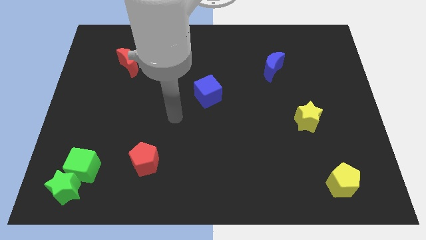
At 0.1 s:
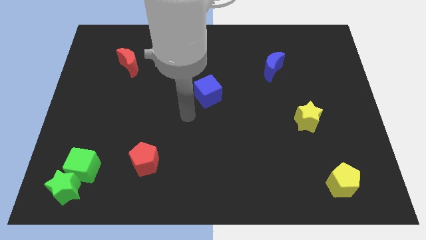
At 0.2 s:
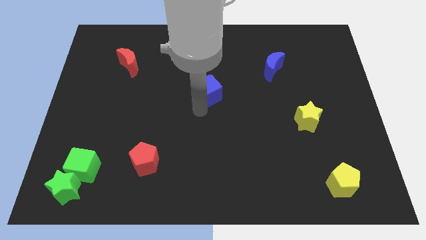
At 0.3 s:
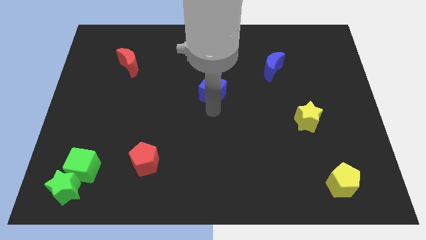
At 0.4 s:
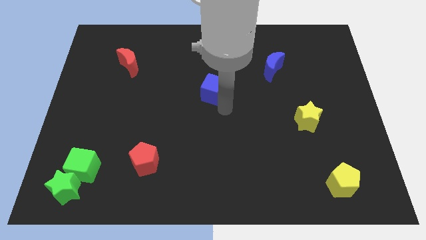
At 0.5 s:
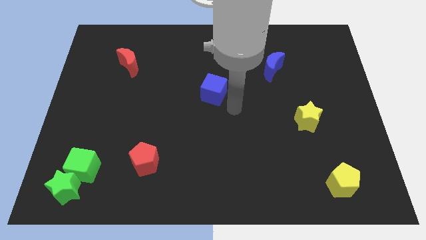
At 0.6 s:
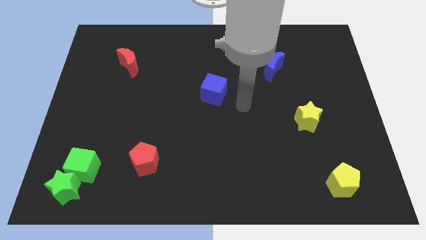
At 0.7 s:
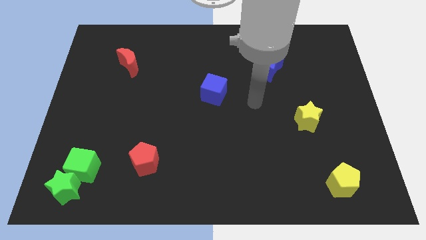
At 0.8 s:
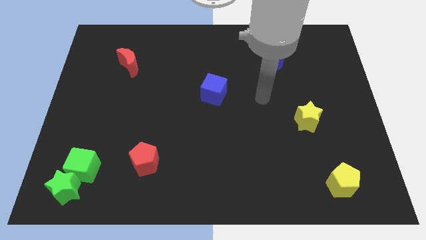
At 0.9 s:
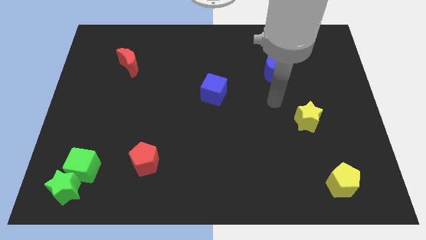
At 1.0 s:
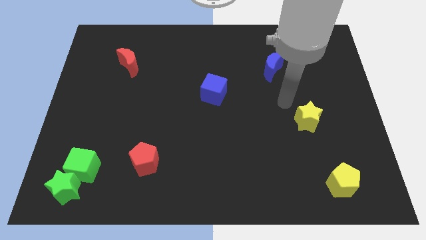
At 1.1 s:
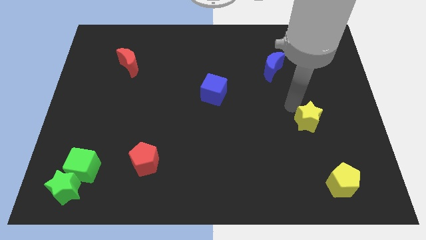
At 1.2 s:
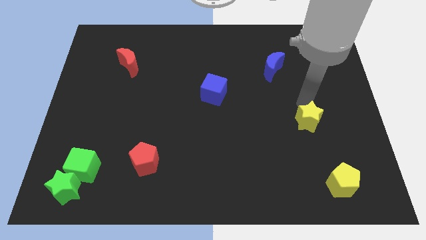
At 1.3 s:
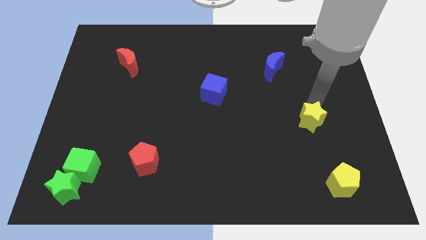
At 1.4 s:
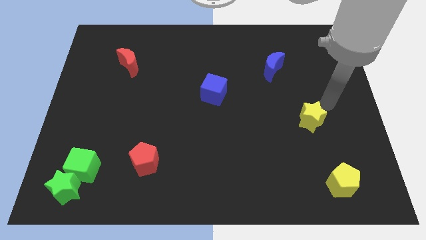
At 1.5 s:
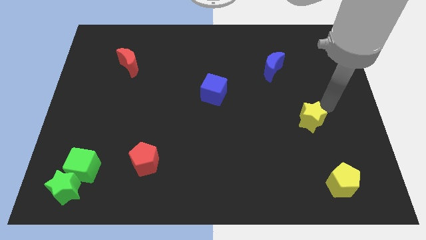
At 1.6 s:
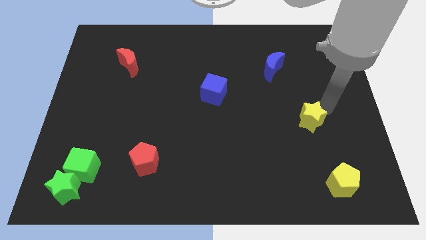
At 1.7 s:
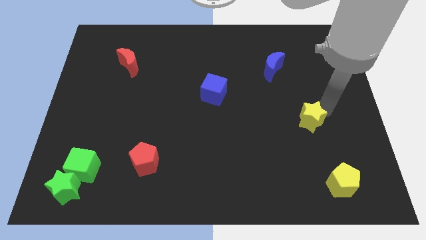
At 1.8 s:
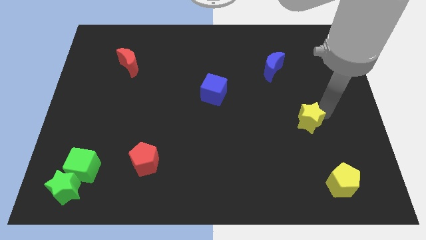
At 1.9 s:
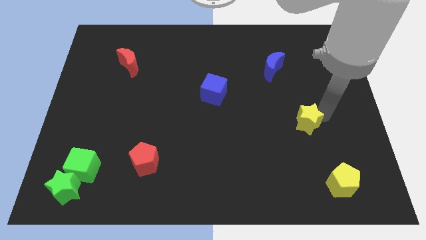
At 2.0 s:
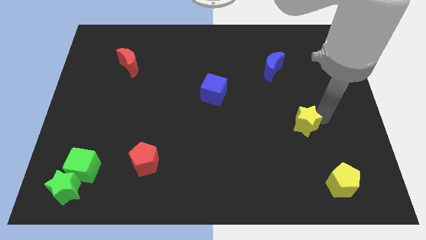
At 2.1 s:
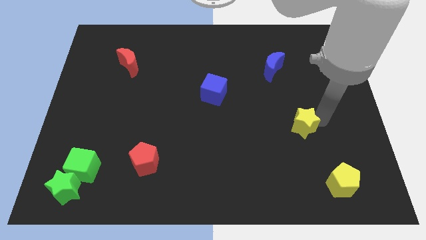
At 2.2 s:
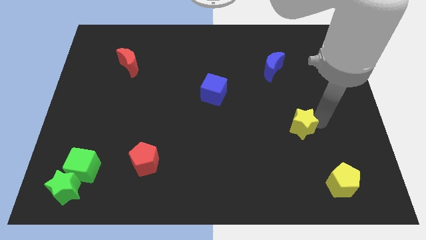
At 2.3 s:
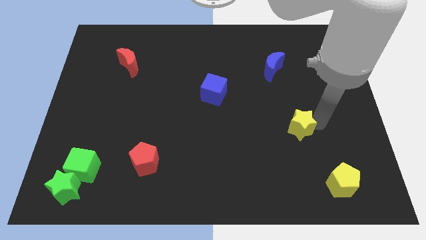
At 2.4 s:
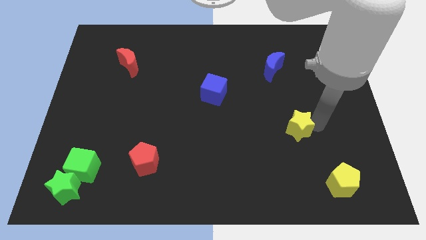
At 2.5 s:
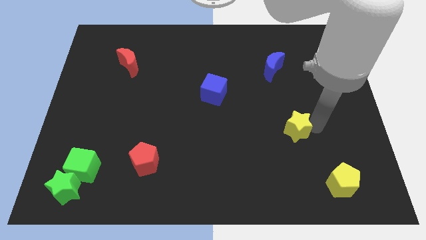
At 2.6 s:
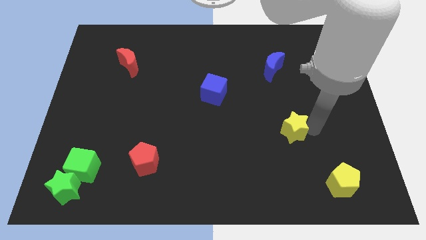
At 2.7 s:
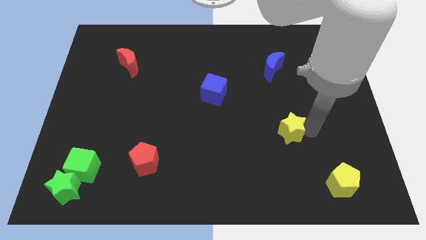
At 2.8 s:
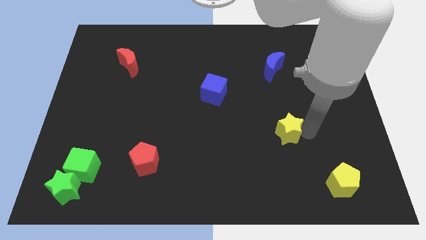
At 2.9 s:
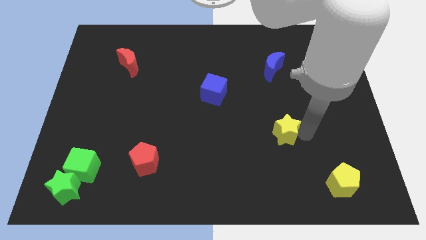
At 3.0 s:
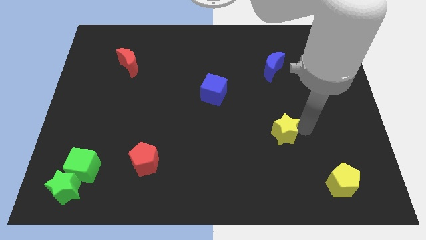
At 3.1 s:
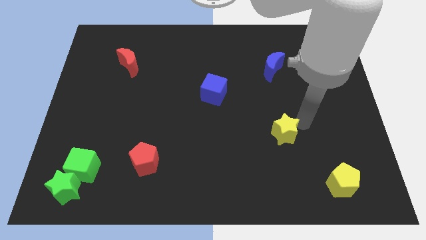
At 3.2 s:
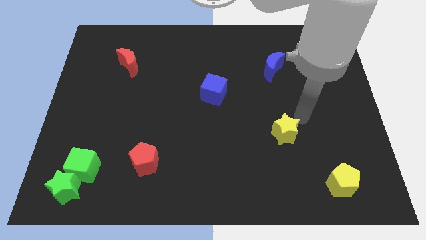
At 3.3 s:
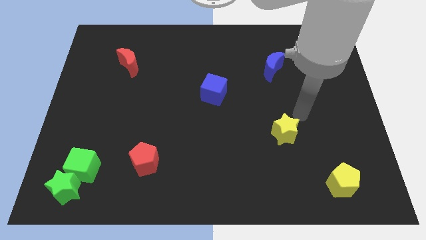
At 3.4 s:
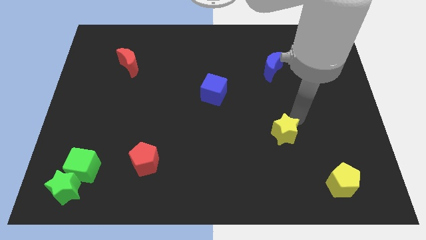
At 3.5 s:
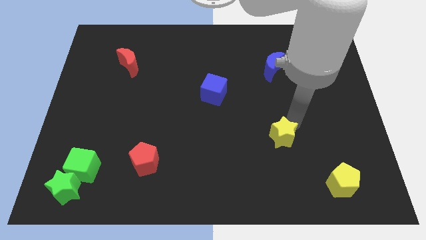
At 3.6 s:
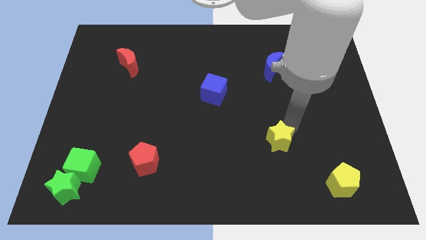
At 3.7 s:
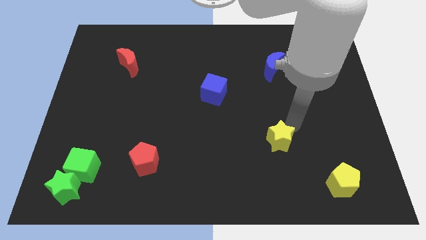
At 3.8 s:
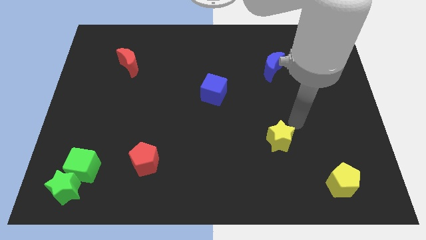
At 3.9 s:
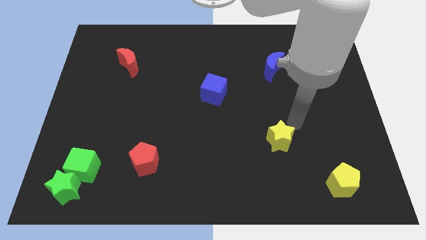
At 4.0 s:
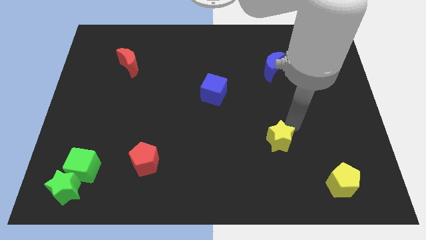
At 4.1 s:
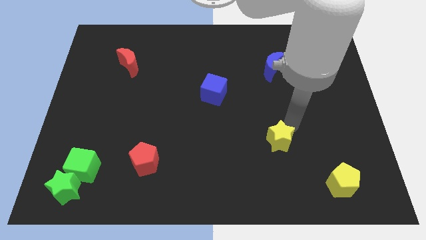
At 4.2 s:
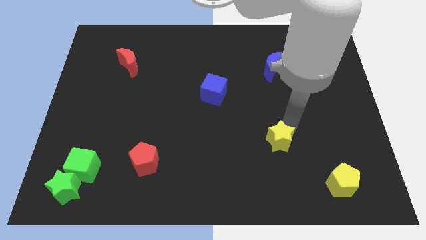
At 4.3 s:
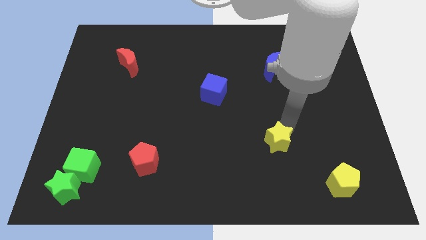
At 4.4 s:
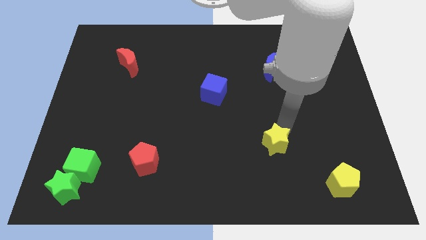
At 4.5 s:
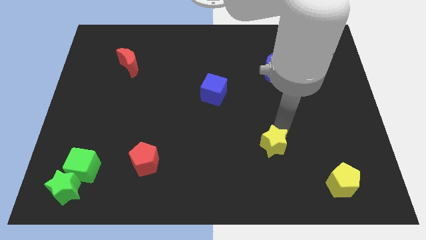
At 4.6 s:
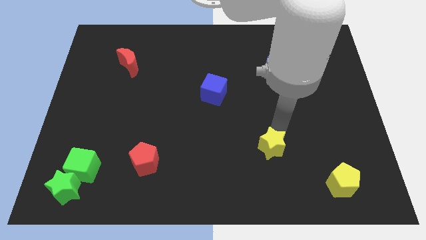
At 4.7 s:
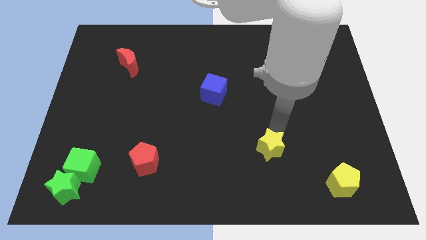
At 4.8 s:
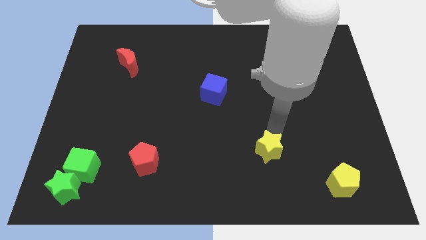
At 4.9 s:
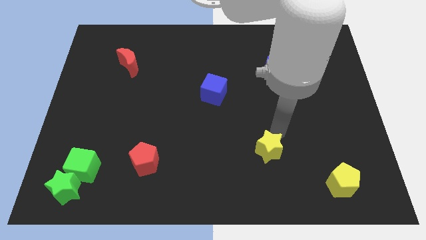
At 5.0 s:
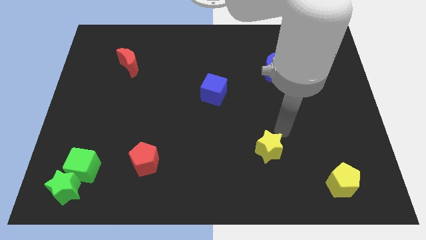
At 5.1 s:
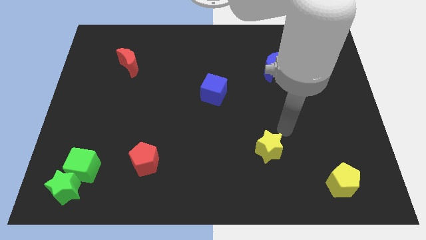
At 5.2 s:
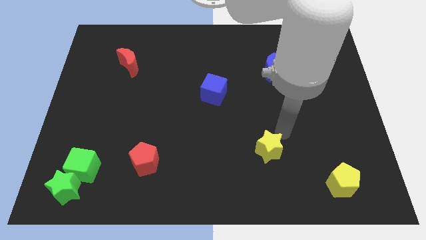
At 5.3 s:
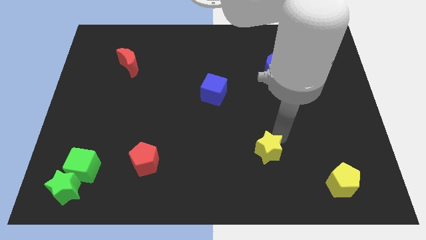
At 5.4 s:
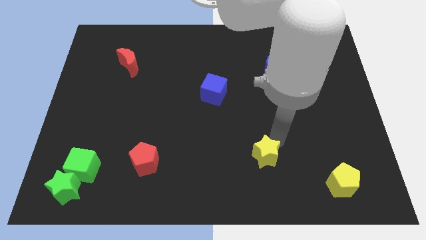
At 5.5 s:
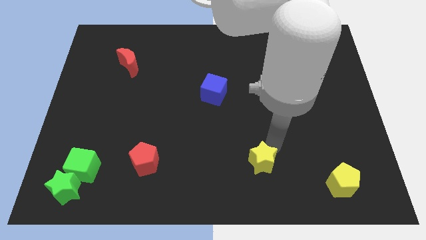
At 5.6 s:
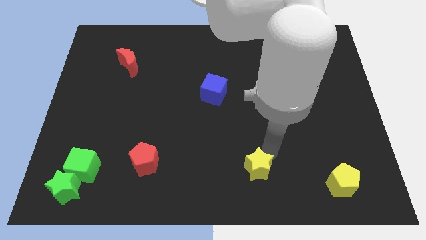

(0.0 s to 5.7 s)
slide the yellow star to the bottom side

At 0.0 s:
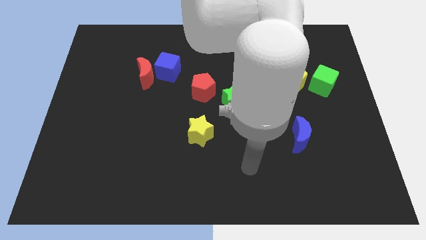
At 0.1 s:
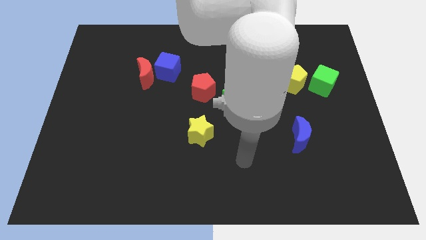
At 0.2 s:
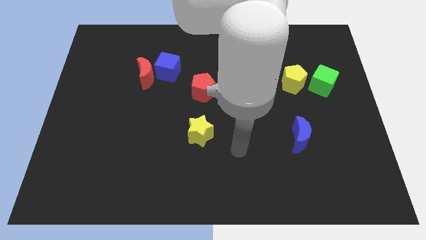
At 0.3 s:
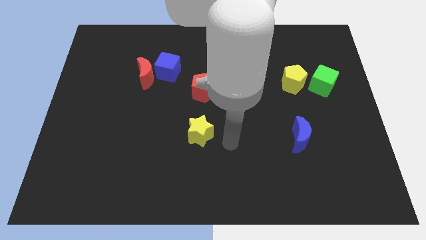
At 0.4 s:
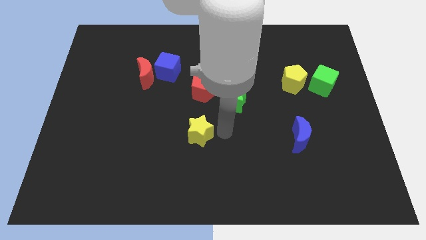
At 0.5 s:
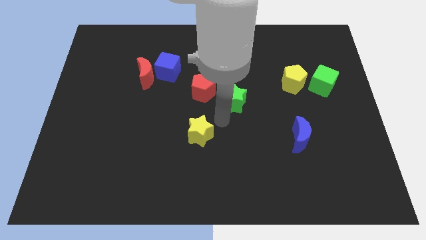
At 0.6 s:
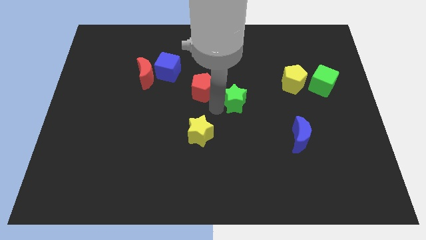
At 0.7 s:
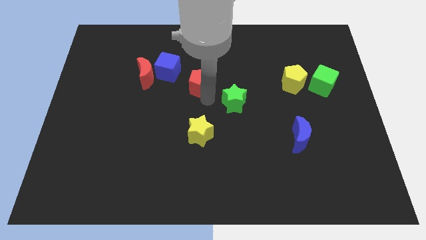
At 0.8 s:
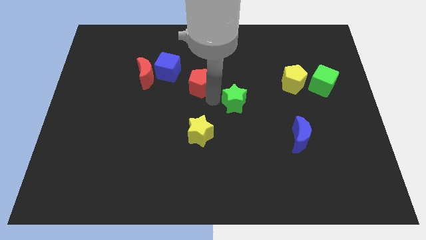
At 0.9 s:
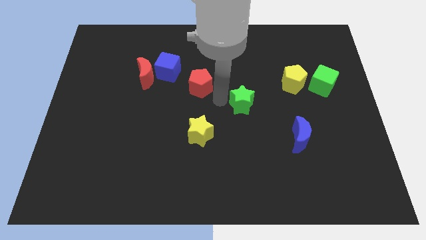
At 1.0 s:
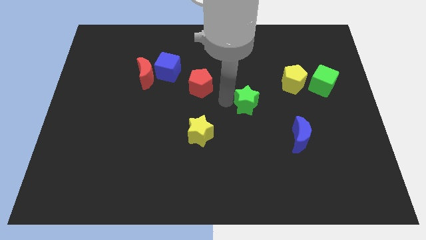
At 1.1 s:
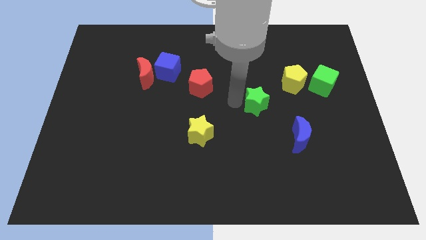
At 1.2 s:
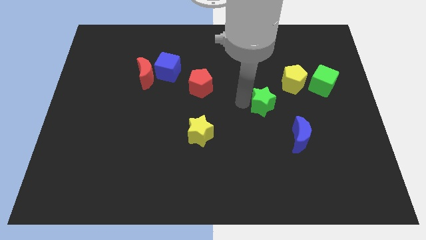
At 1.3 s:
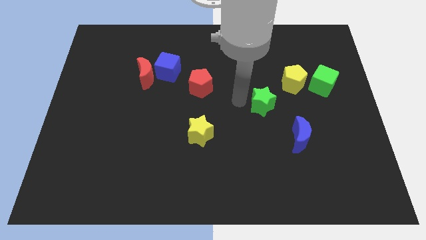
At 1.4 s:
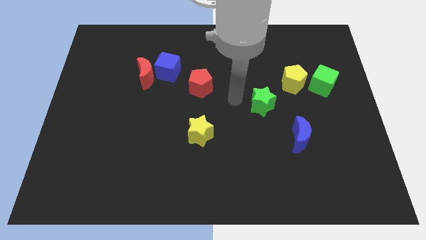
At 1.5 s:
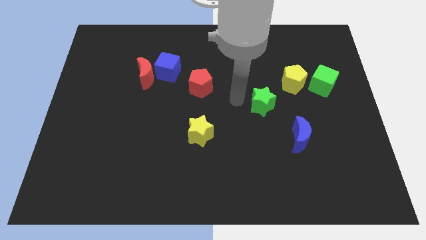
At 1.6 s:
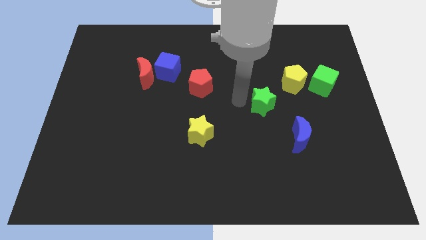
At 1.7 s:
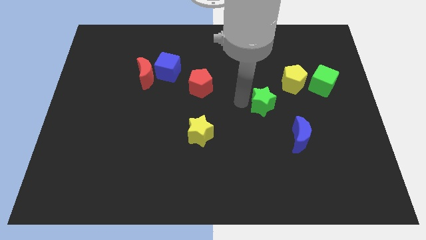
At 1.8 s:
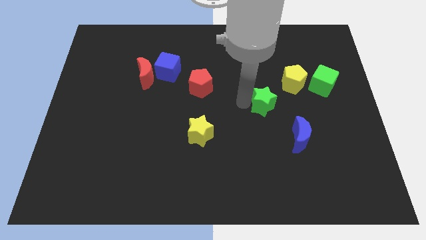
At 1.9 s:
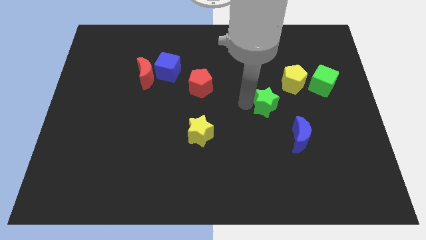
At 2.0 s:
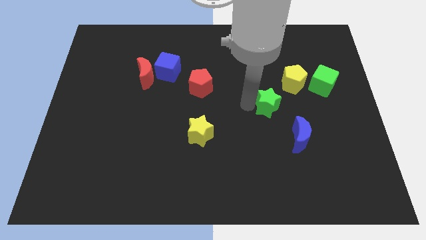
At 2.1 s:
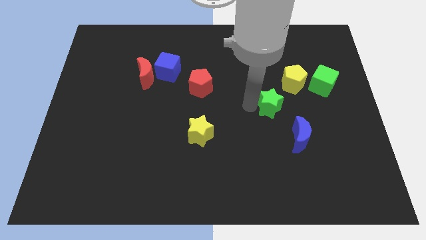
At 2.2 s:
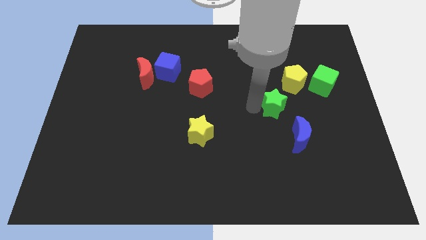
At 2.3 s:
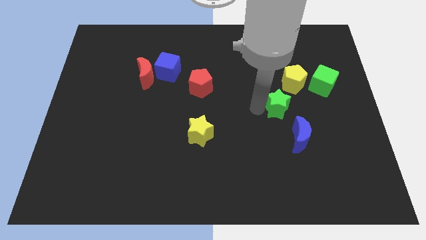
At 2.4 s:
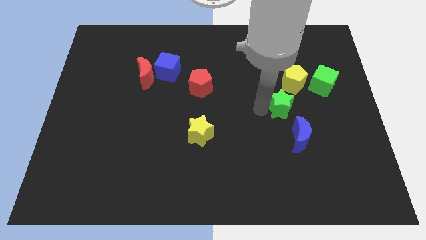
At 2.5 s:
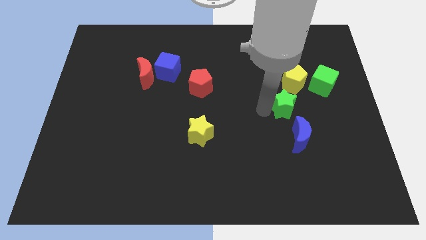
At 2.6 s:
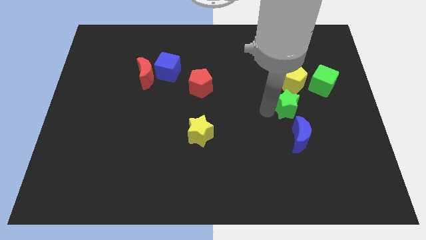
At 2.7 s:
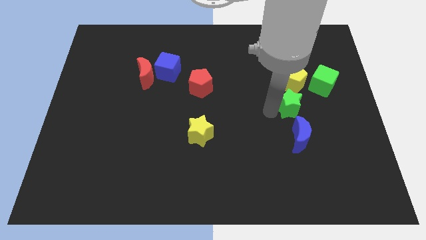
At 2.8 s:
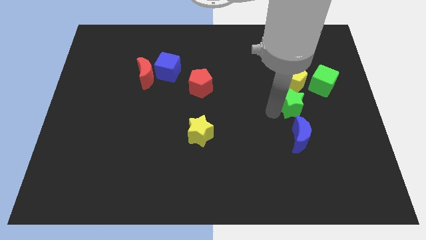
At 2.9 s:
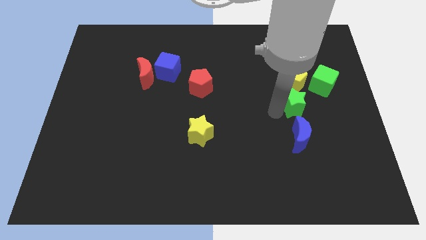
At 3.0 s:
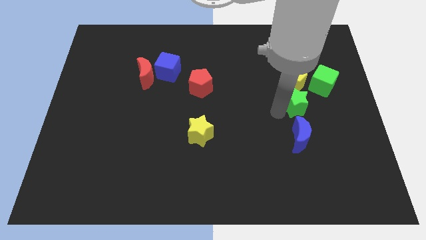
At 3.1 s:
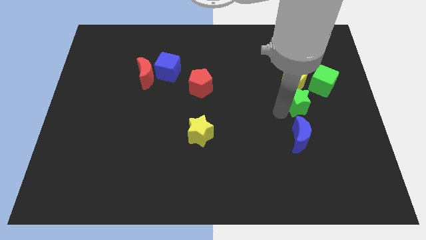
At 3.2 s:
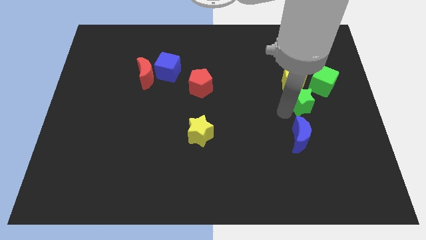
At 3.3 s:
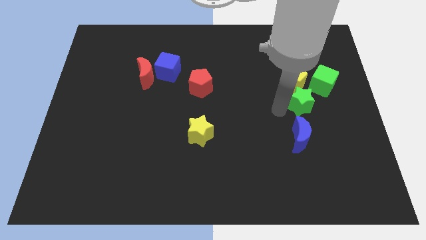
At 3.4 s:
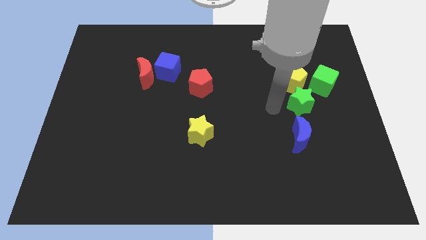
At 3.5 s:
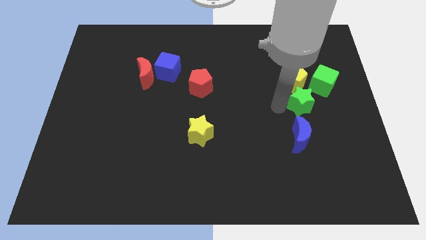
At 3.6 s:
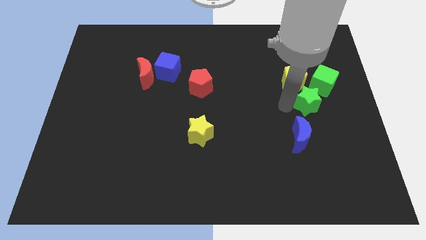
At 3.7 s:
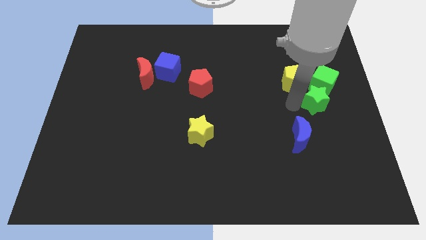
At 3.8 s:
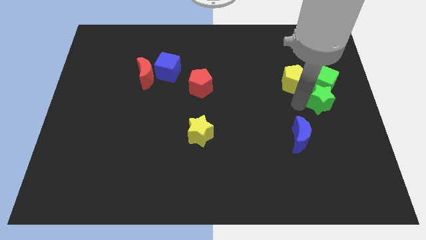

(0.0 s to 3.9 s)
put the green star to the right side of the board
